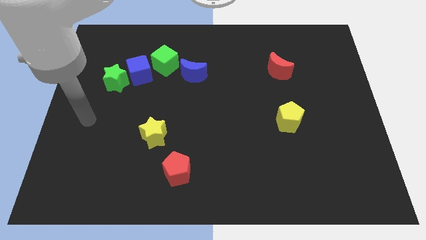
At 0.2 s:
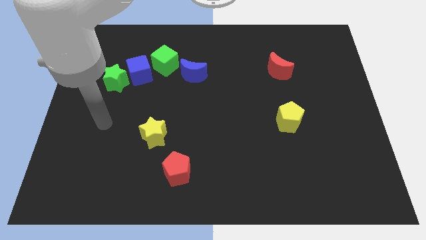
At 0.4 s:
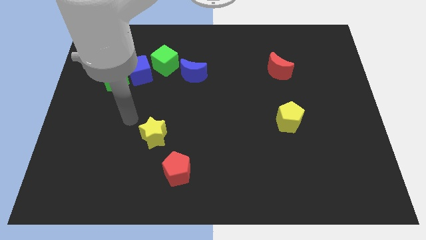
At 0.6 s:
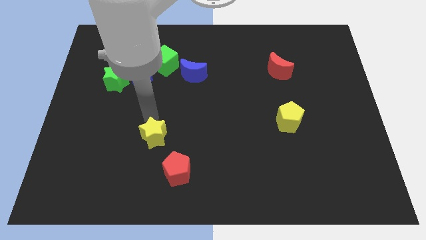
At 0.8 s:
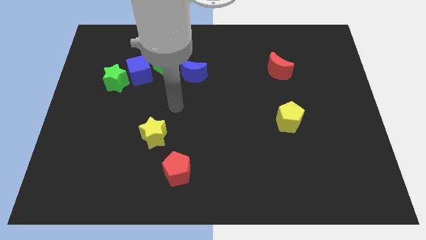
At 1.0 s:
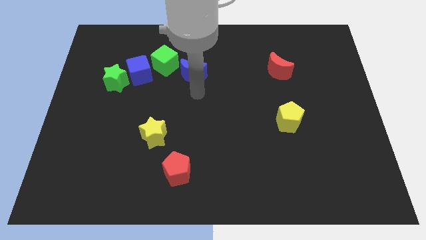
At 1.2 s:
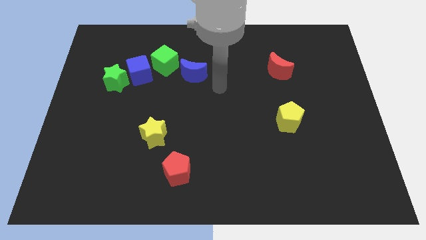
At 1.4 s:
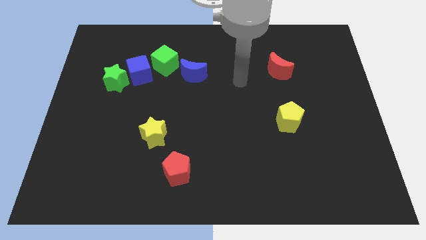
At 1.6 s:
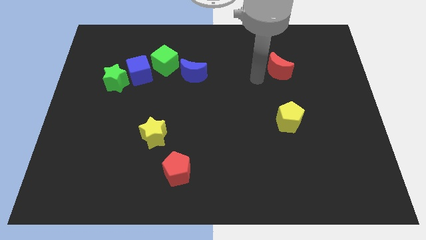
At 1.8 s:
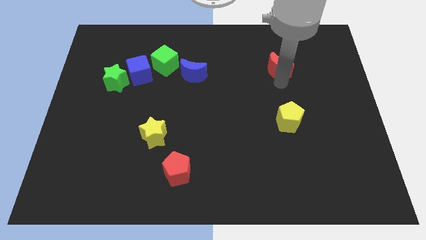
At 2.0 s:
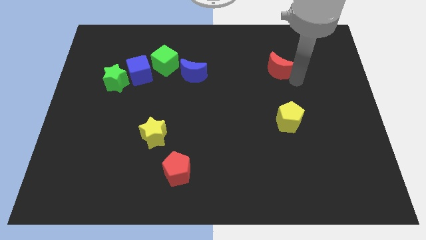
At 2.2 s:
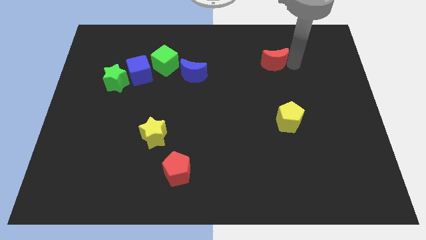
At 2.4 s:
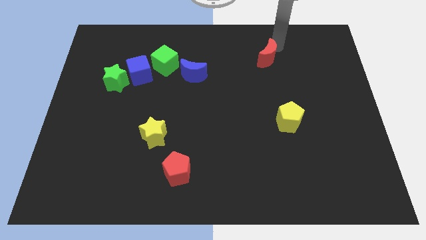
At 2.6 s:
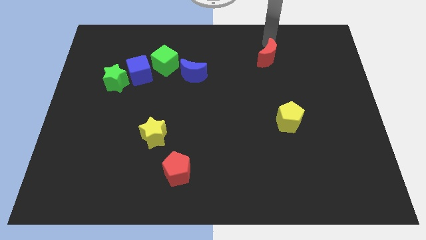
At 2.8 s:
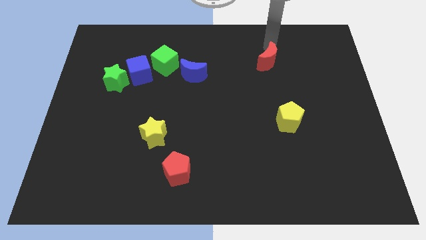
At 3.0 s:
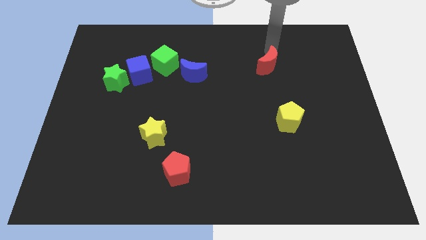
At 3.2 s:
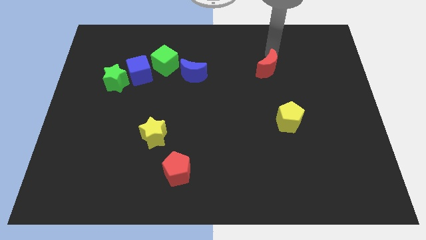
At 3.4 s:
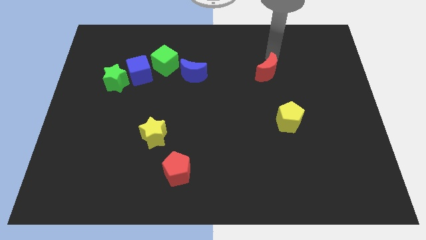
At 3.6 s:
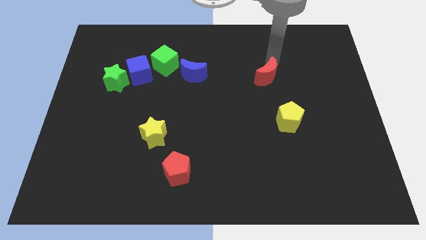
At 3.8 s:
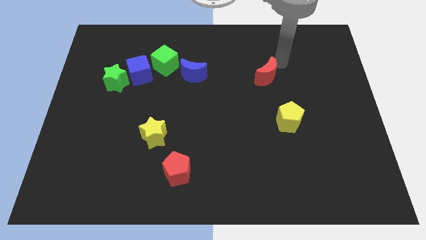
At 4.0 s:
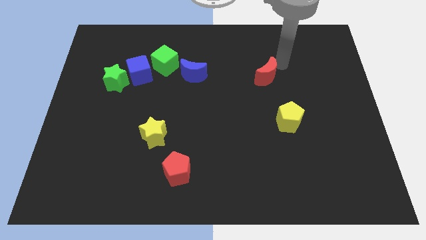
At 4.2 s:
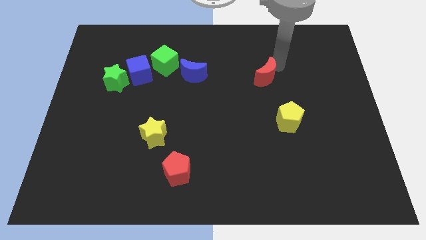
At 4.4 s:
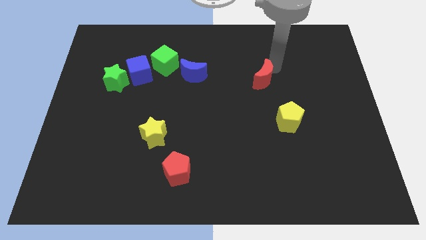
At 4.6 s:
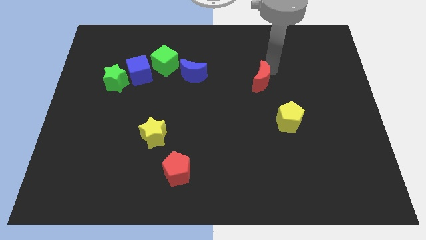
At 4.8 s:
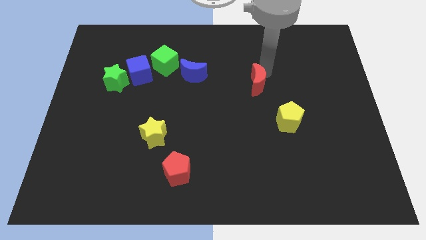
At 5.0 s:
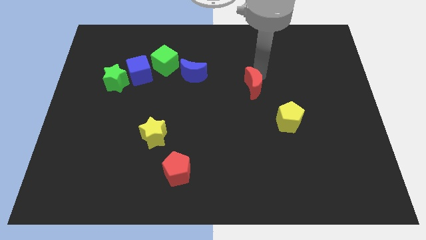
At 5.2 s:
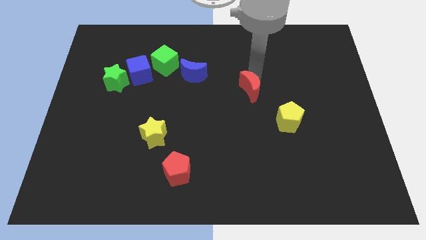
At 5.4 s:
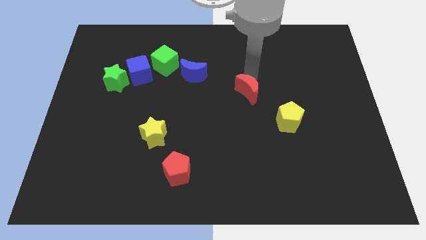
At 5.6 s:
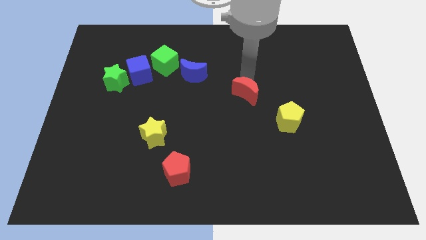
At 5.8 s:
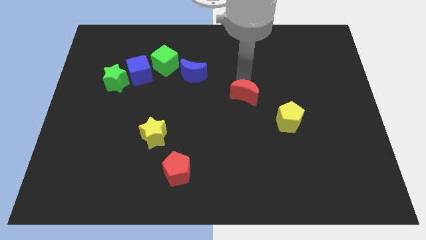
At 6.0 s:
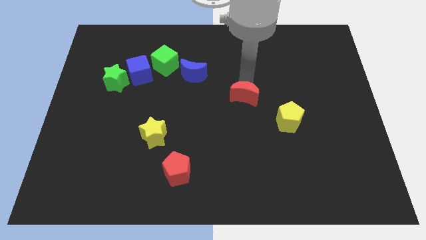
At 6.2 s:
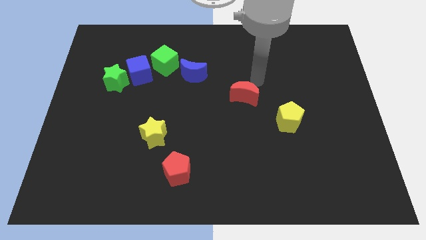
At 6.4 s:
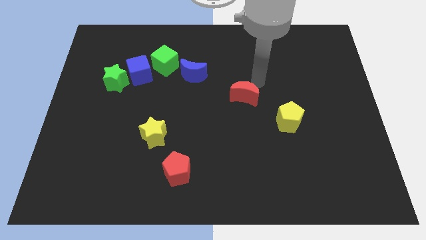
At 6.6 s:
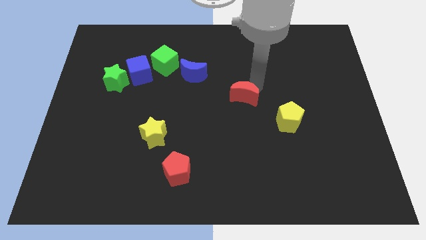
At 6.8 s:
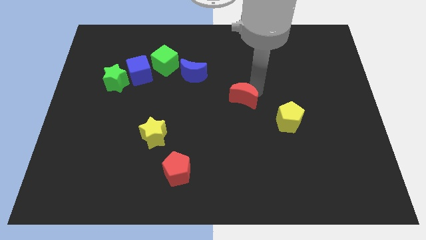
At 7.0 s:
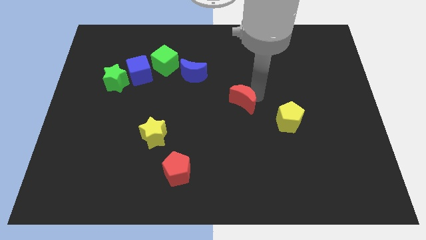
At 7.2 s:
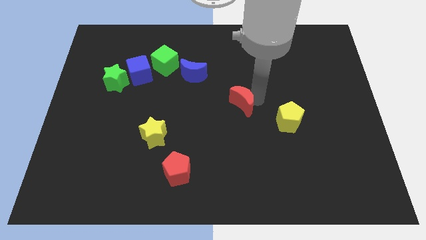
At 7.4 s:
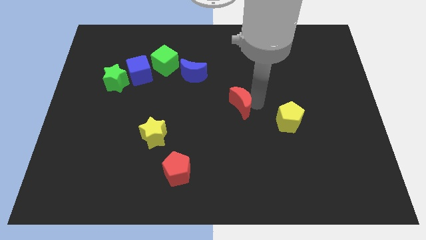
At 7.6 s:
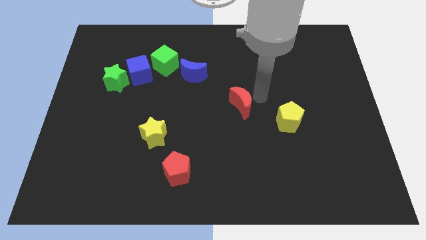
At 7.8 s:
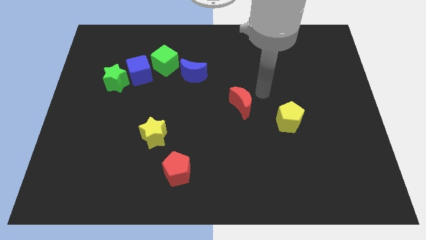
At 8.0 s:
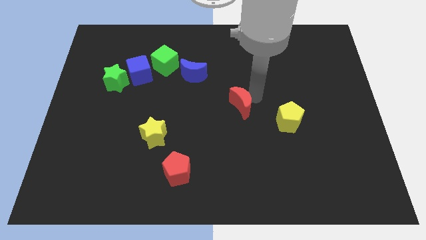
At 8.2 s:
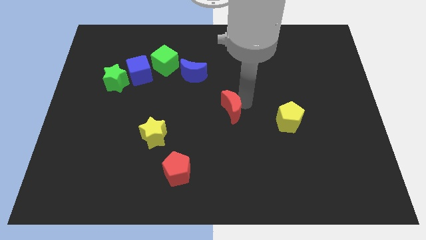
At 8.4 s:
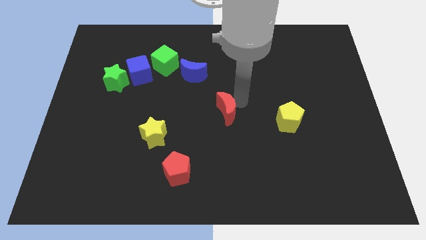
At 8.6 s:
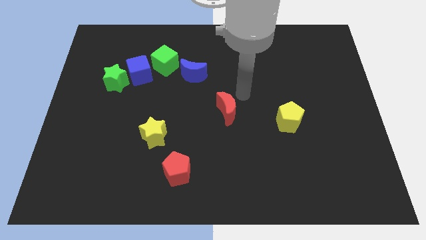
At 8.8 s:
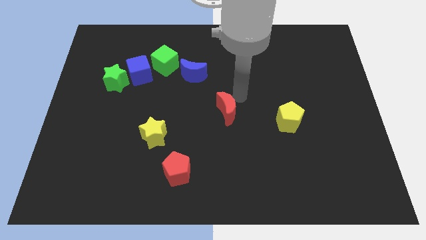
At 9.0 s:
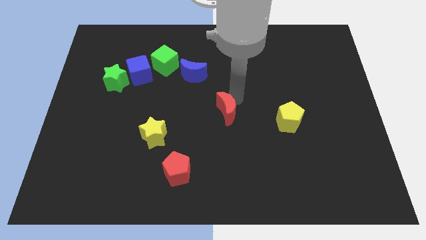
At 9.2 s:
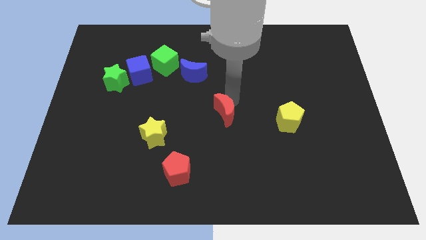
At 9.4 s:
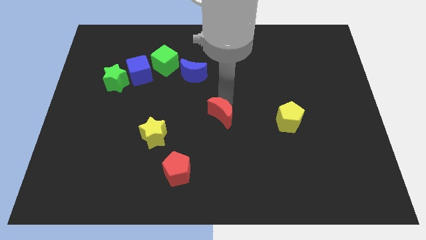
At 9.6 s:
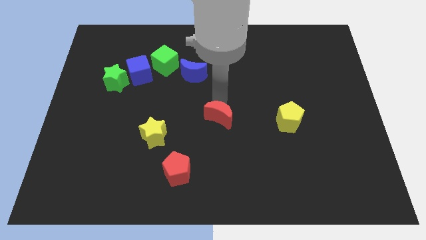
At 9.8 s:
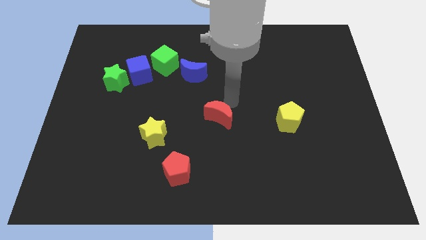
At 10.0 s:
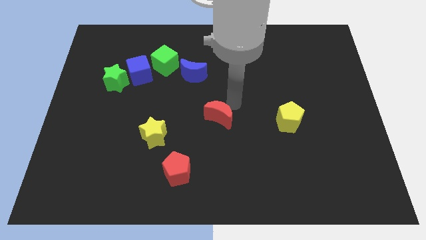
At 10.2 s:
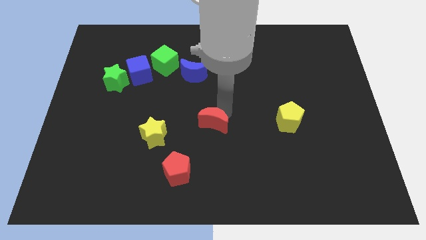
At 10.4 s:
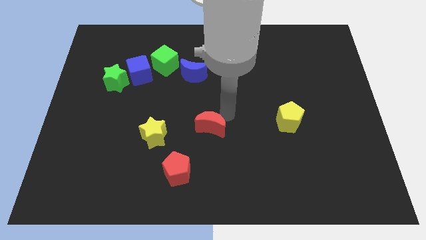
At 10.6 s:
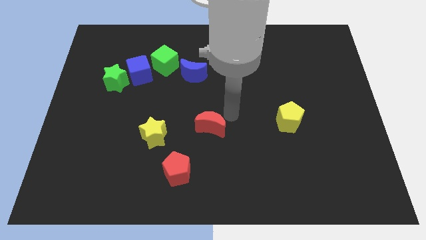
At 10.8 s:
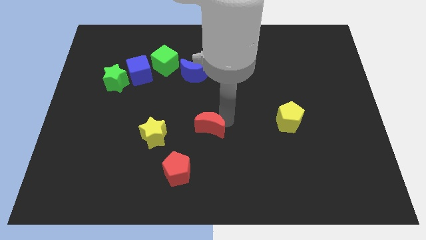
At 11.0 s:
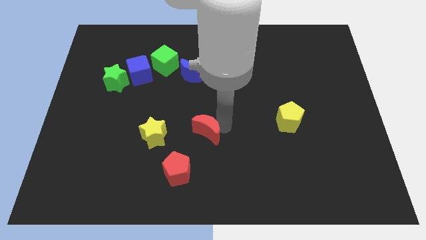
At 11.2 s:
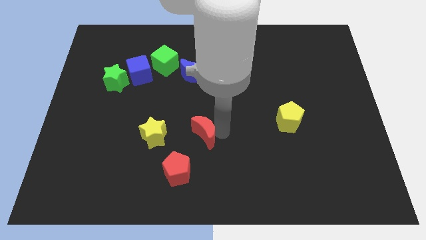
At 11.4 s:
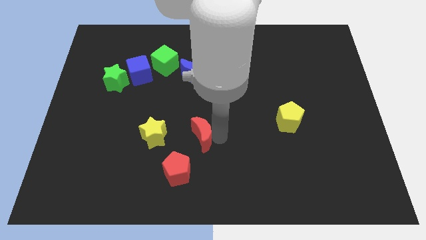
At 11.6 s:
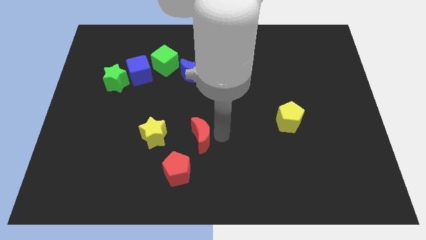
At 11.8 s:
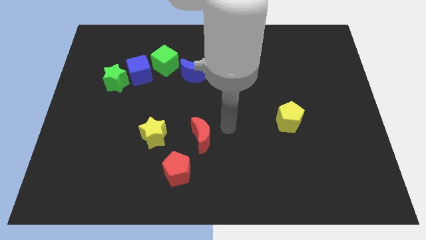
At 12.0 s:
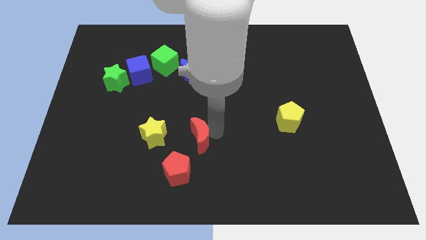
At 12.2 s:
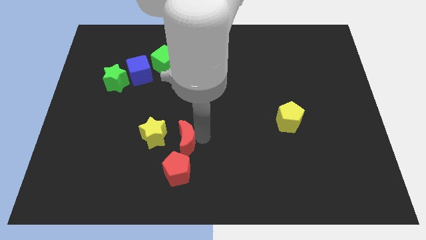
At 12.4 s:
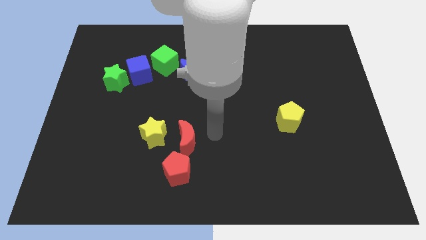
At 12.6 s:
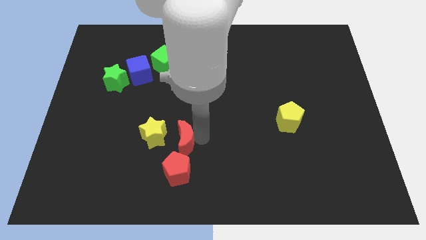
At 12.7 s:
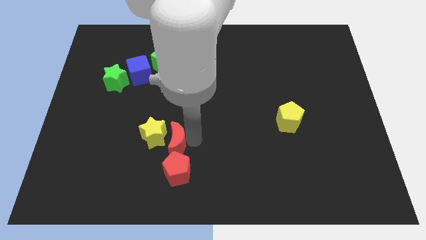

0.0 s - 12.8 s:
push the red moon to the top left of the red pentagon

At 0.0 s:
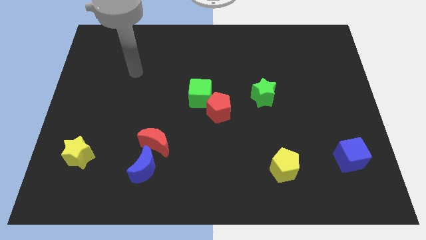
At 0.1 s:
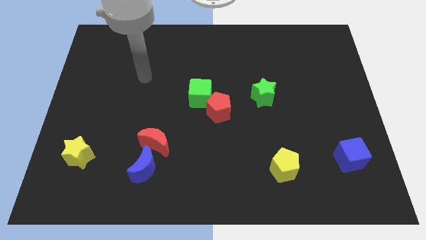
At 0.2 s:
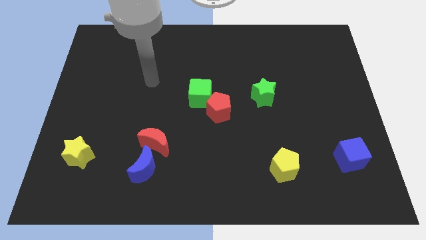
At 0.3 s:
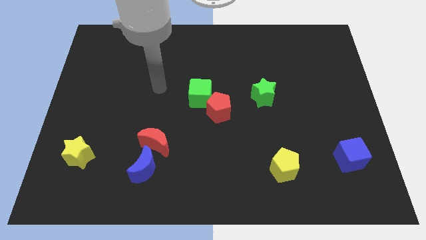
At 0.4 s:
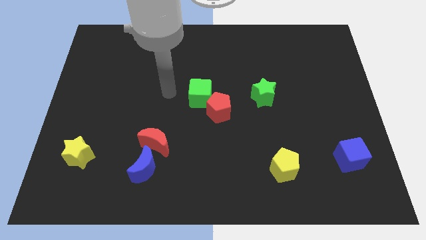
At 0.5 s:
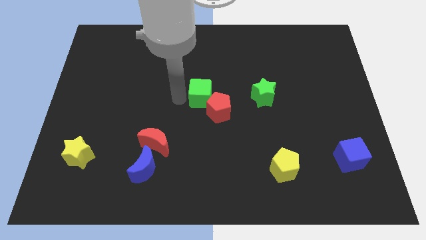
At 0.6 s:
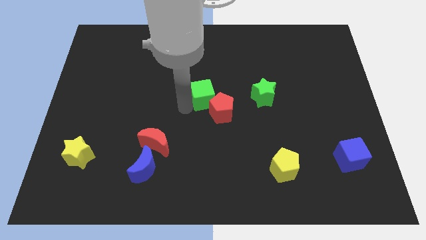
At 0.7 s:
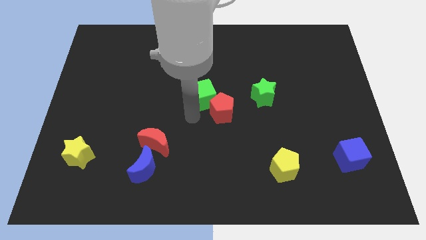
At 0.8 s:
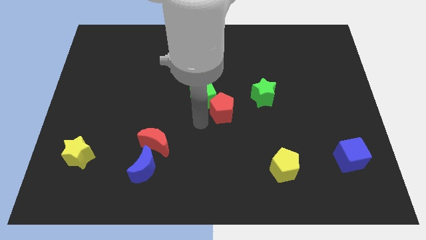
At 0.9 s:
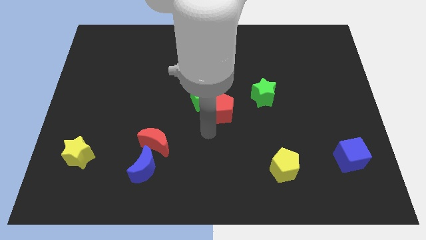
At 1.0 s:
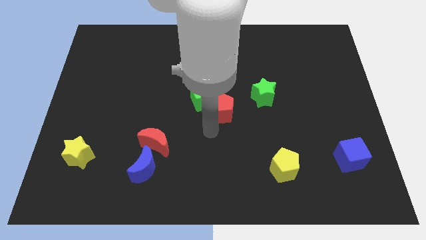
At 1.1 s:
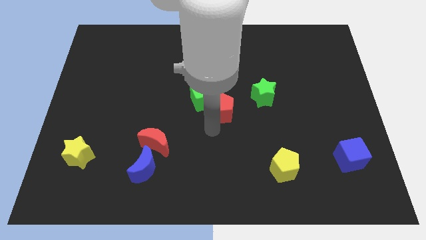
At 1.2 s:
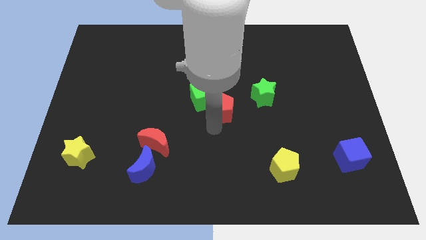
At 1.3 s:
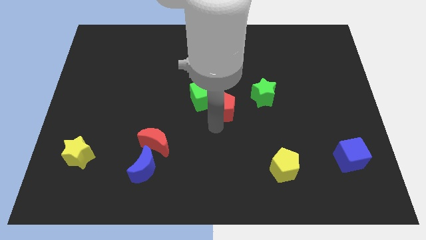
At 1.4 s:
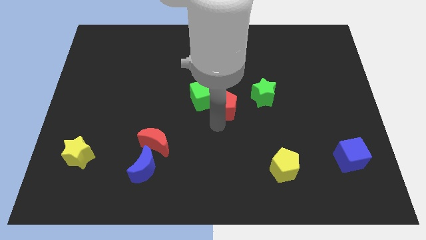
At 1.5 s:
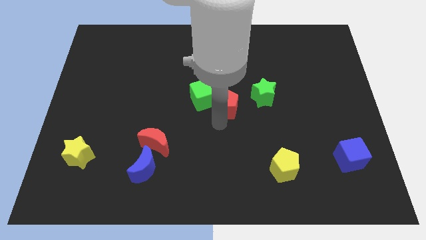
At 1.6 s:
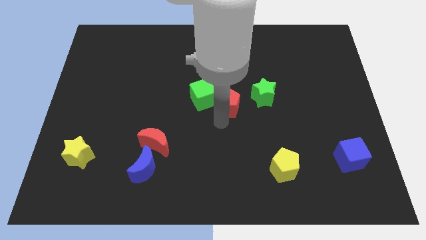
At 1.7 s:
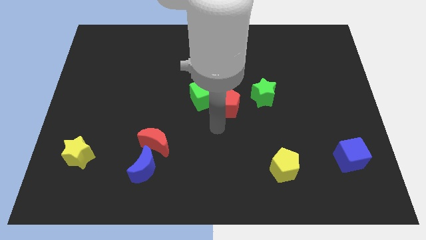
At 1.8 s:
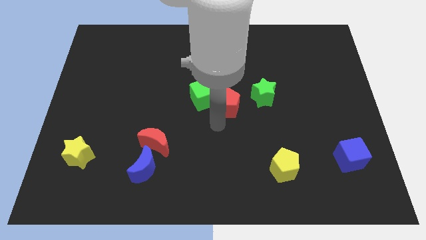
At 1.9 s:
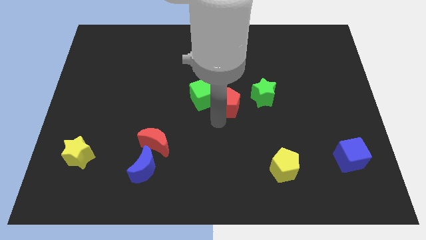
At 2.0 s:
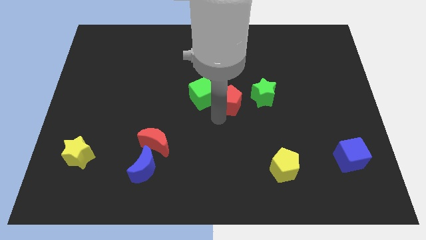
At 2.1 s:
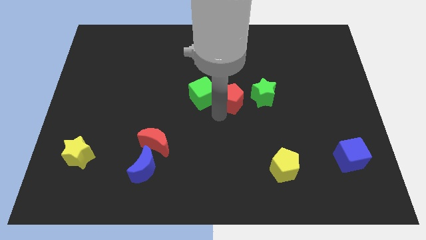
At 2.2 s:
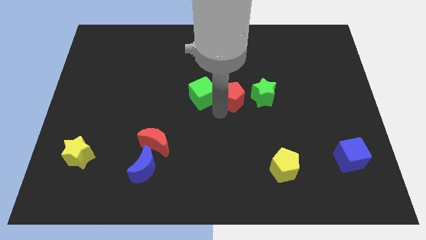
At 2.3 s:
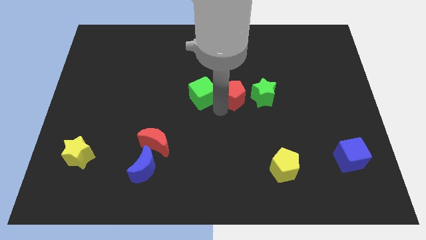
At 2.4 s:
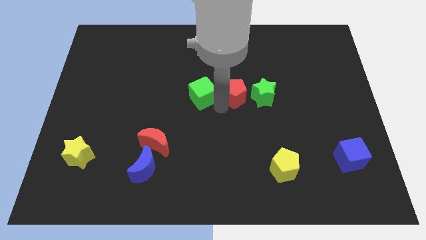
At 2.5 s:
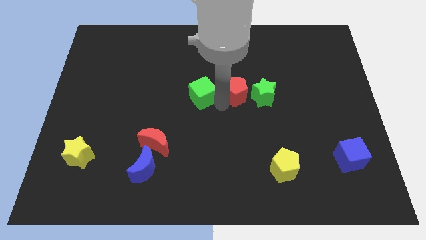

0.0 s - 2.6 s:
put the red pentagon diagonally up and to the left of the green star
